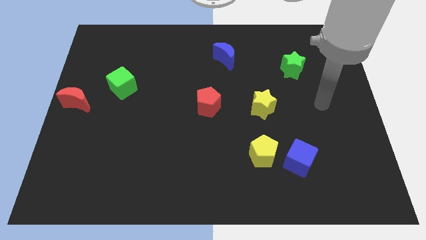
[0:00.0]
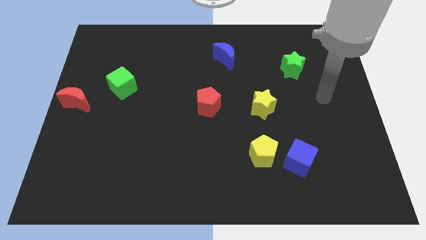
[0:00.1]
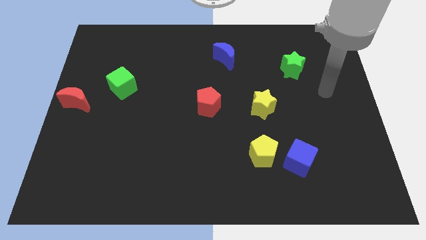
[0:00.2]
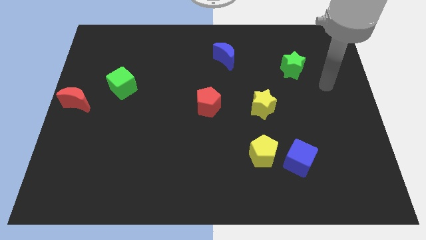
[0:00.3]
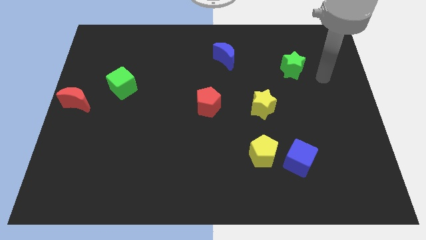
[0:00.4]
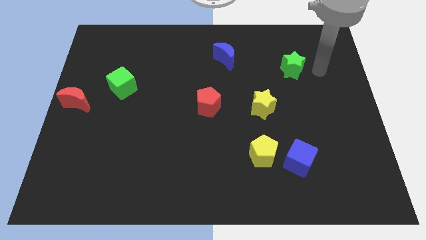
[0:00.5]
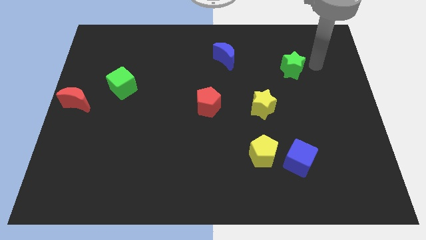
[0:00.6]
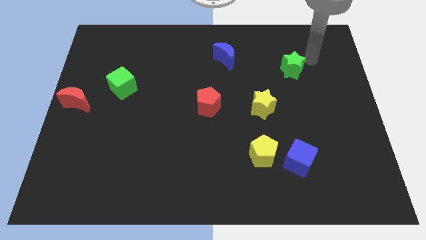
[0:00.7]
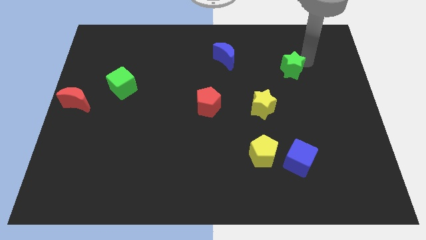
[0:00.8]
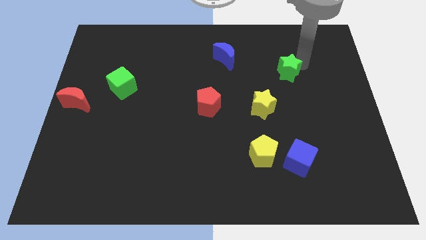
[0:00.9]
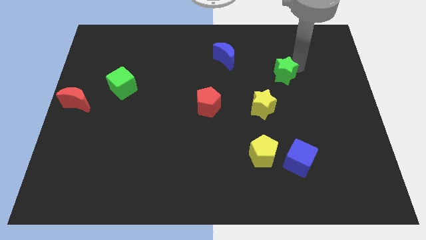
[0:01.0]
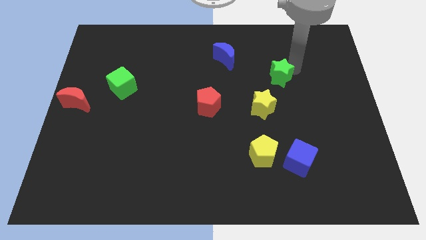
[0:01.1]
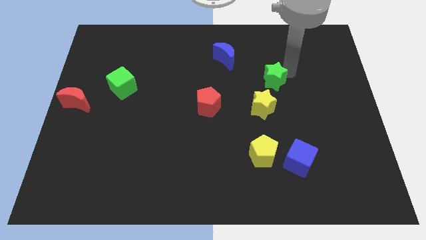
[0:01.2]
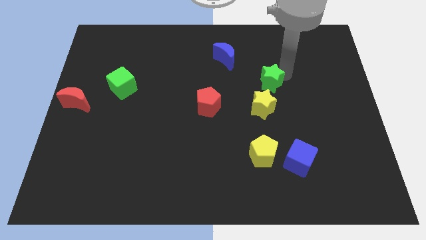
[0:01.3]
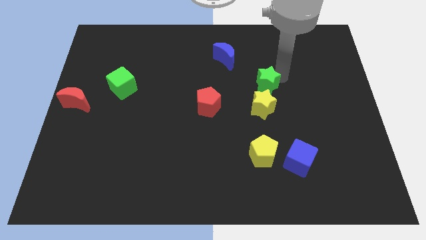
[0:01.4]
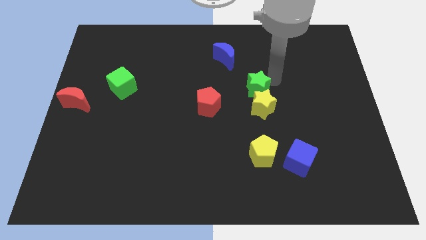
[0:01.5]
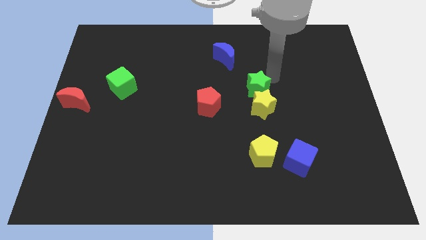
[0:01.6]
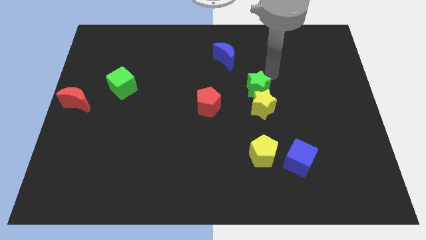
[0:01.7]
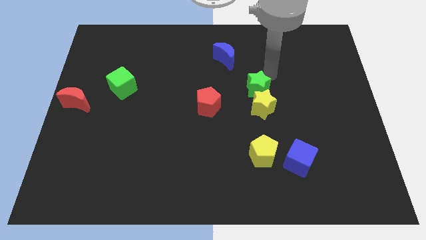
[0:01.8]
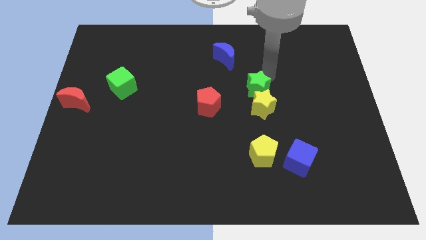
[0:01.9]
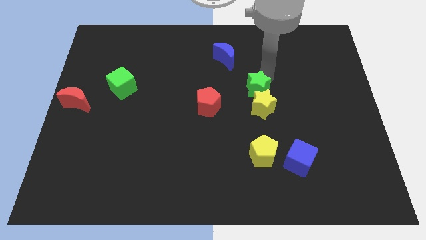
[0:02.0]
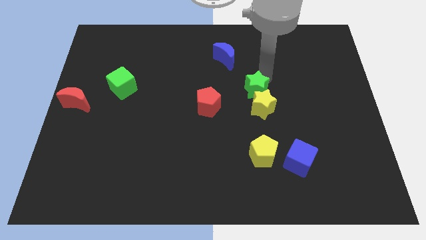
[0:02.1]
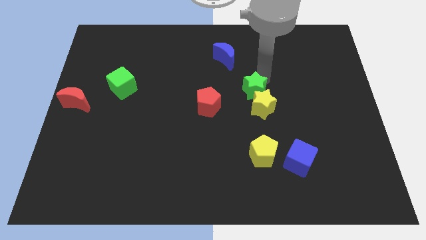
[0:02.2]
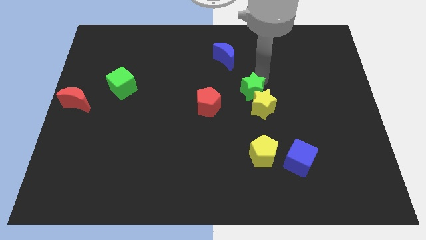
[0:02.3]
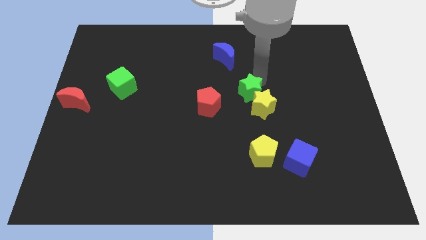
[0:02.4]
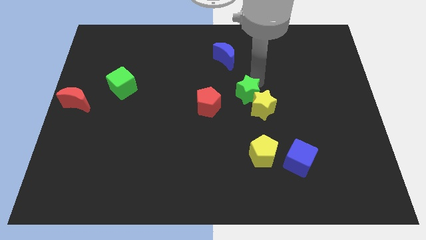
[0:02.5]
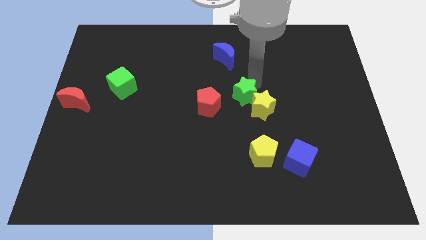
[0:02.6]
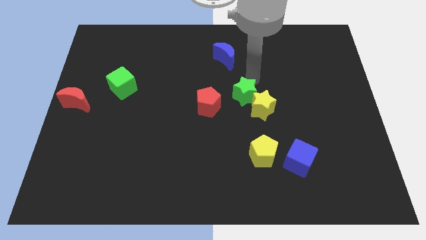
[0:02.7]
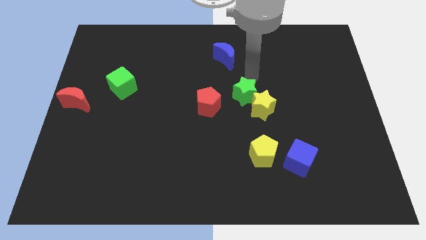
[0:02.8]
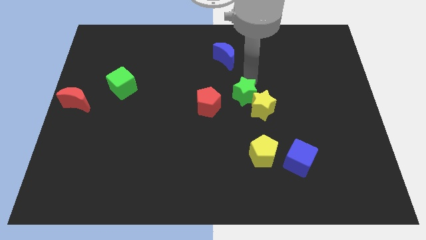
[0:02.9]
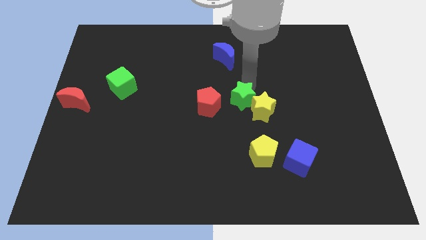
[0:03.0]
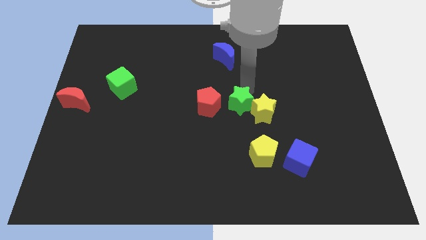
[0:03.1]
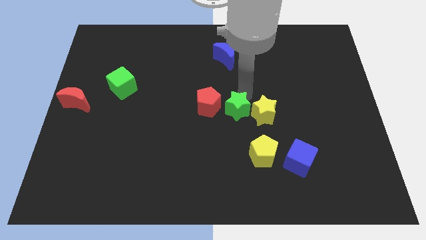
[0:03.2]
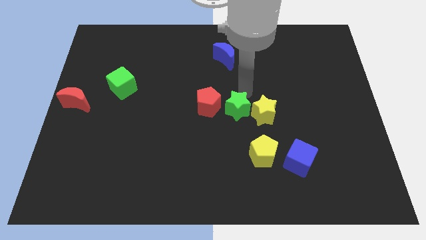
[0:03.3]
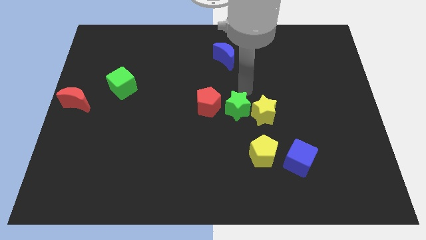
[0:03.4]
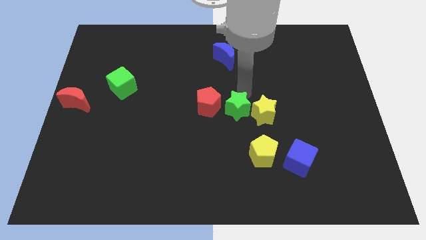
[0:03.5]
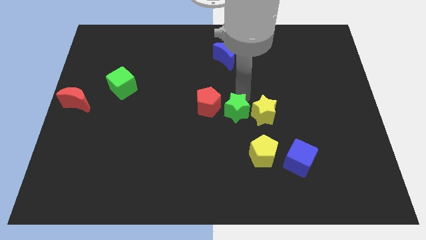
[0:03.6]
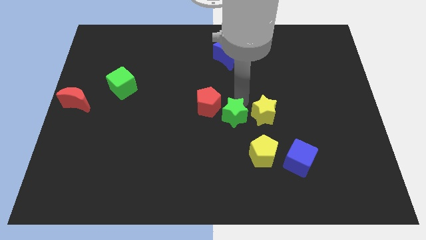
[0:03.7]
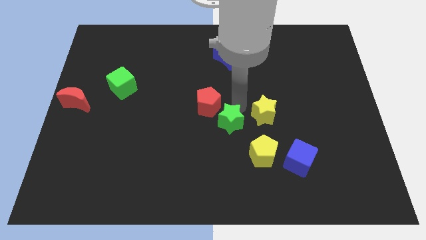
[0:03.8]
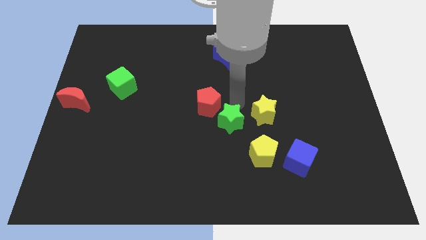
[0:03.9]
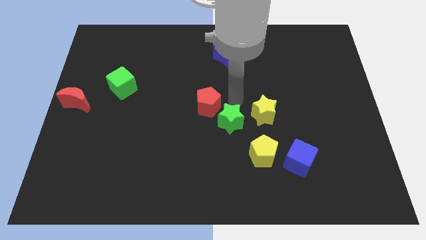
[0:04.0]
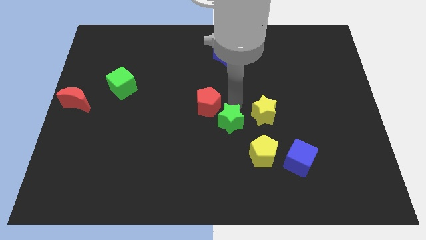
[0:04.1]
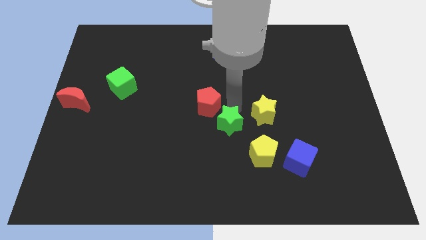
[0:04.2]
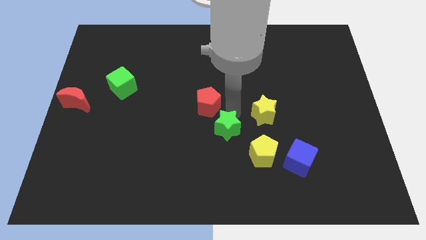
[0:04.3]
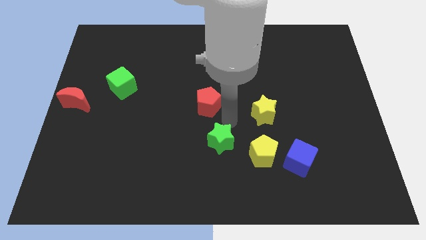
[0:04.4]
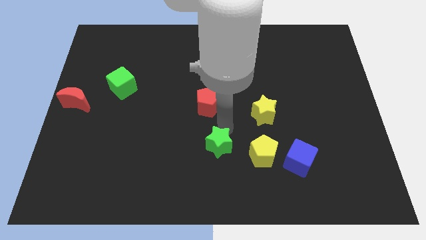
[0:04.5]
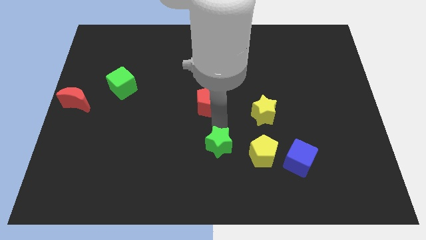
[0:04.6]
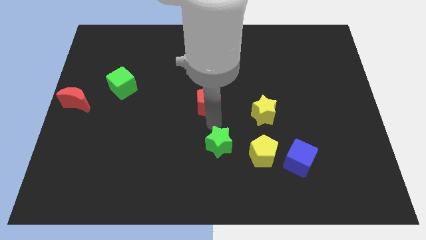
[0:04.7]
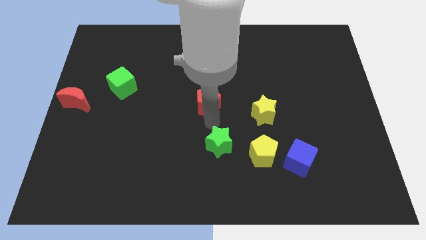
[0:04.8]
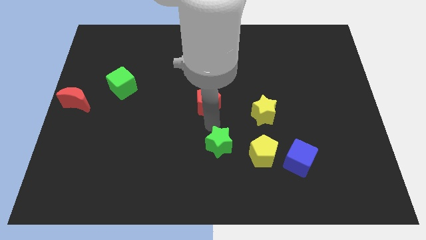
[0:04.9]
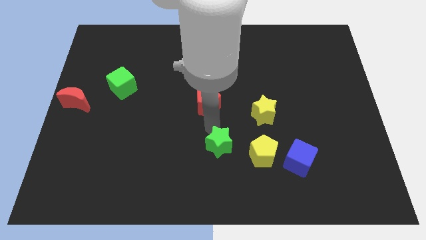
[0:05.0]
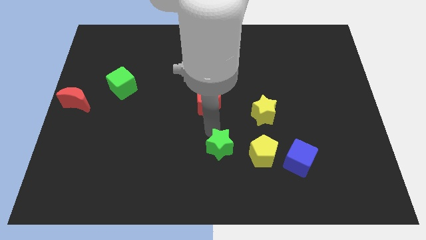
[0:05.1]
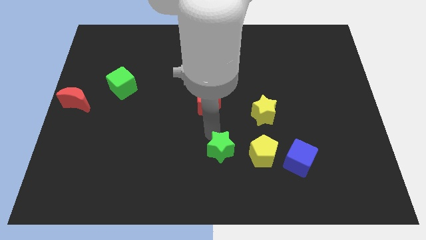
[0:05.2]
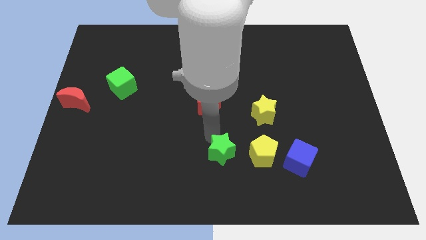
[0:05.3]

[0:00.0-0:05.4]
slide the green star to the bottom side
